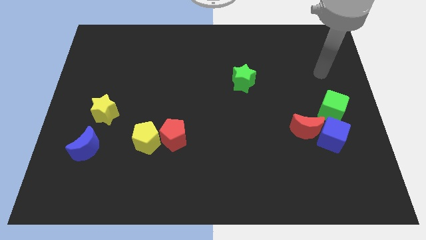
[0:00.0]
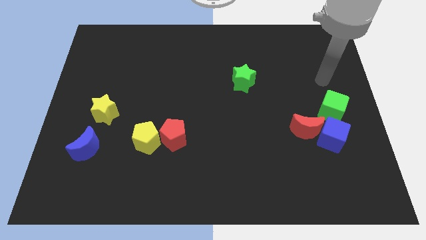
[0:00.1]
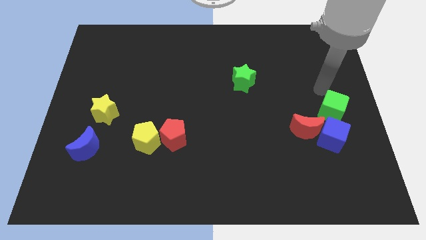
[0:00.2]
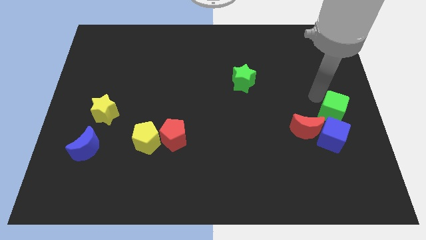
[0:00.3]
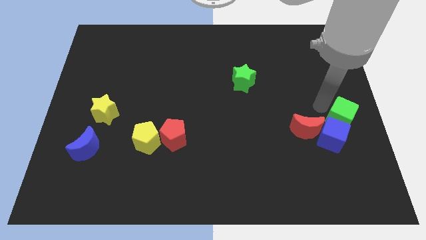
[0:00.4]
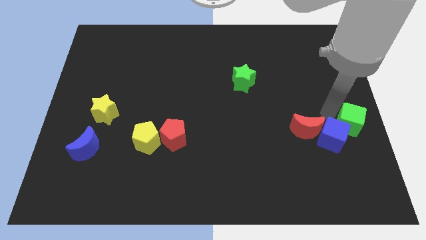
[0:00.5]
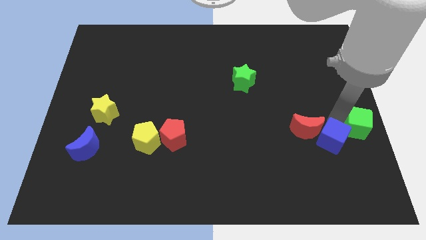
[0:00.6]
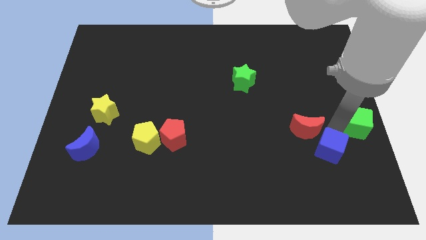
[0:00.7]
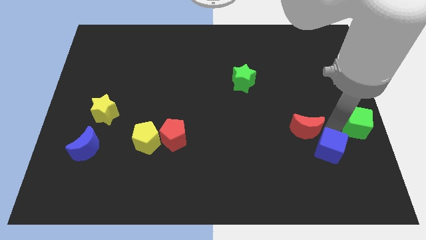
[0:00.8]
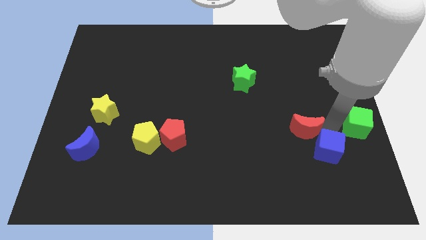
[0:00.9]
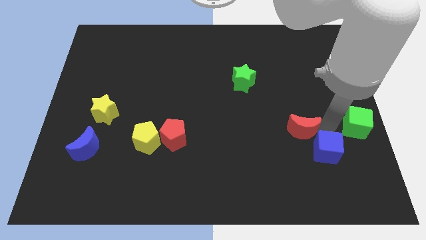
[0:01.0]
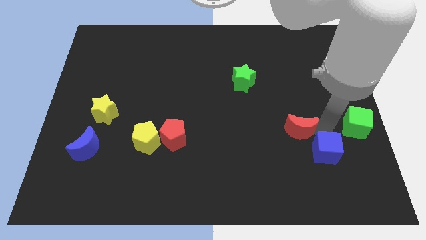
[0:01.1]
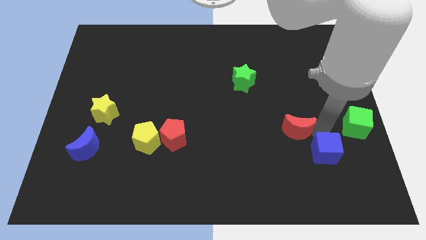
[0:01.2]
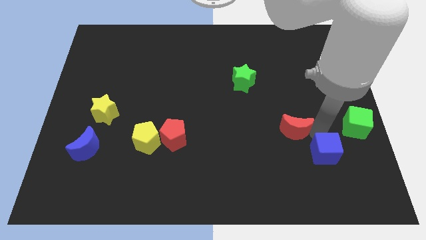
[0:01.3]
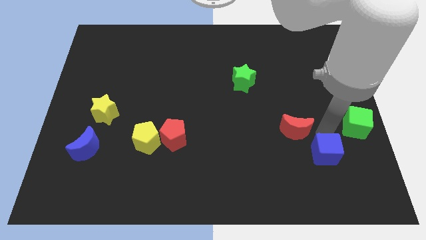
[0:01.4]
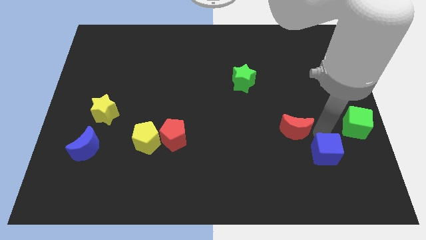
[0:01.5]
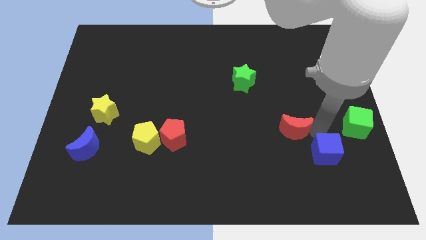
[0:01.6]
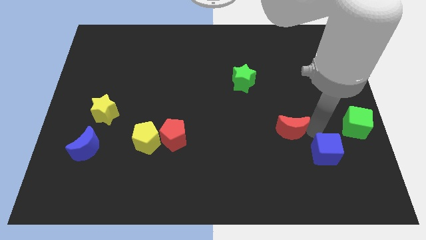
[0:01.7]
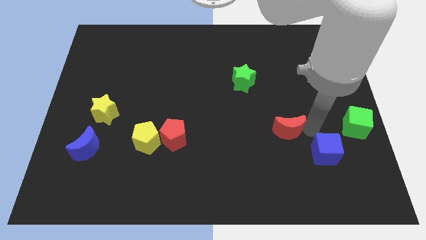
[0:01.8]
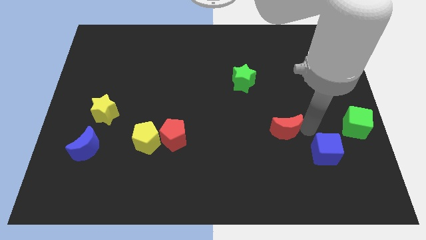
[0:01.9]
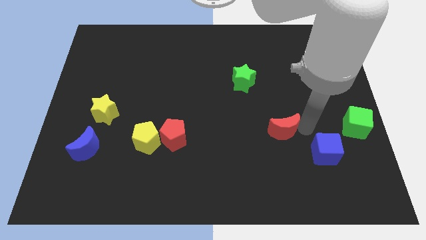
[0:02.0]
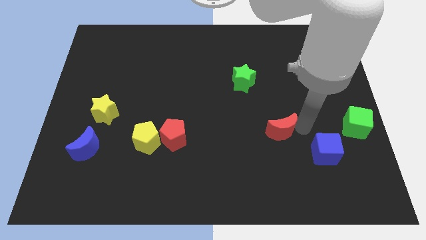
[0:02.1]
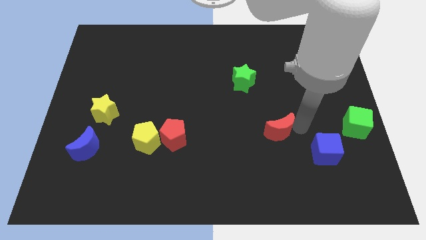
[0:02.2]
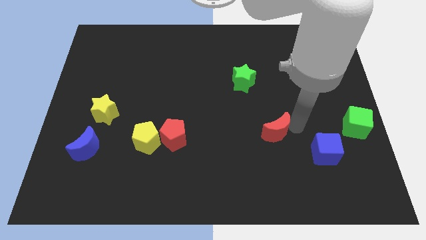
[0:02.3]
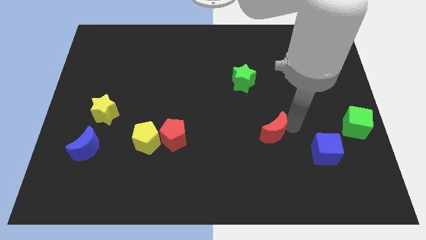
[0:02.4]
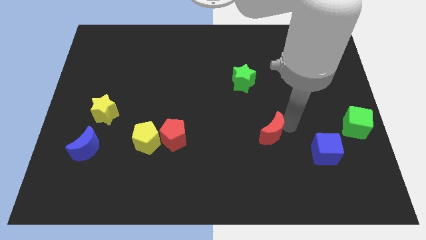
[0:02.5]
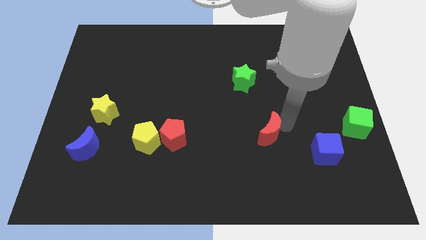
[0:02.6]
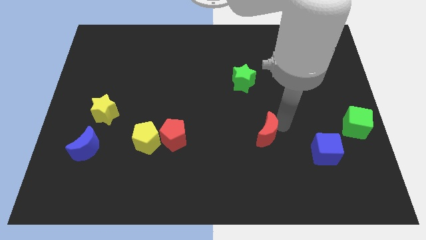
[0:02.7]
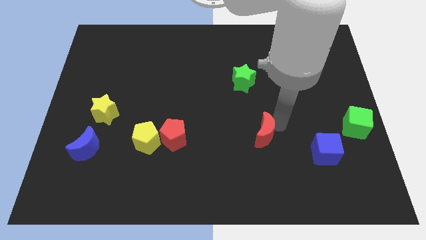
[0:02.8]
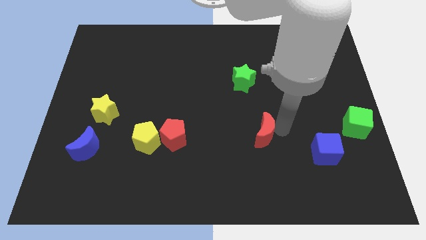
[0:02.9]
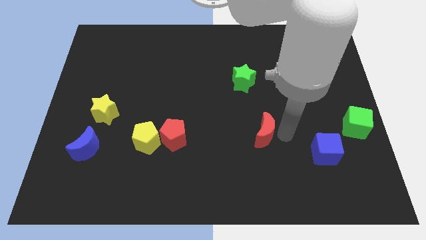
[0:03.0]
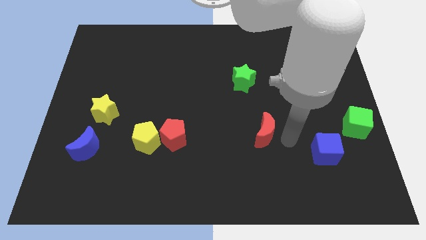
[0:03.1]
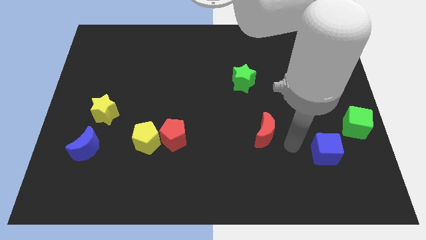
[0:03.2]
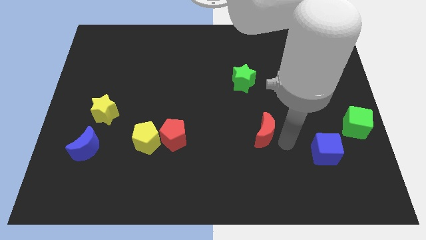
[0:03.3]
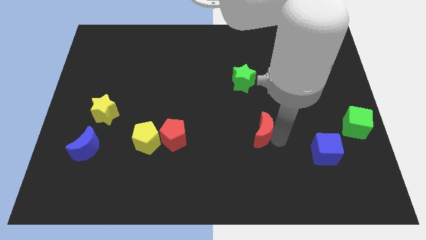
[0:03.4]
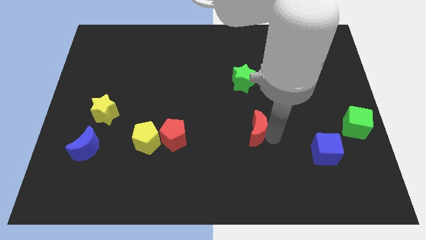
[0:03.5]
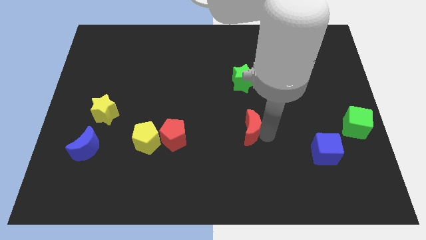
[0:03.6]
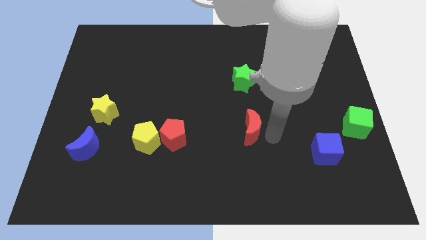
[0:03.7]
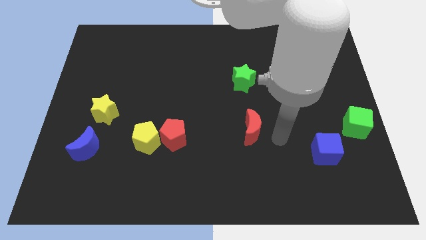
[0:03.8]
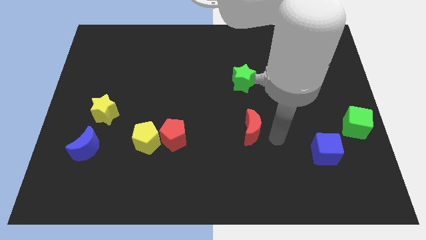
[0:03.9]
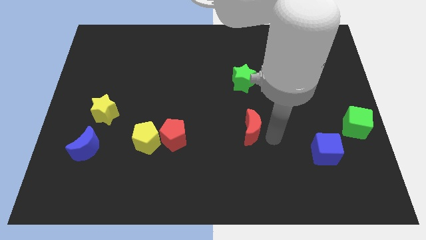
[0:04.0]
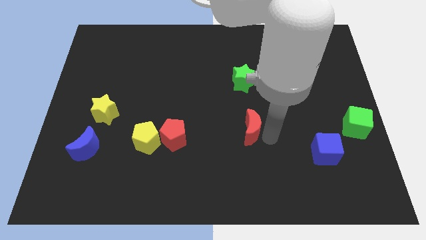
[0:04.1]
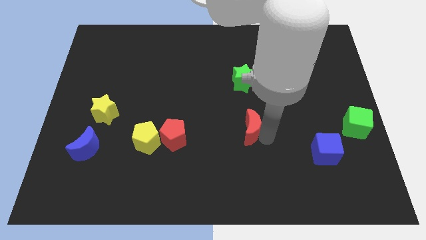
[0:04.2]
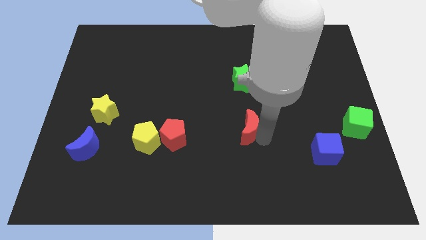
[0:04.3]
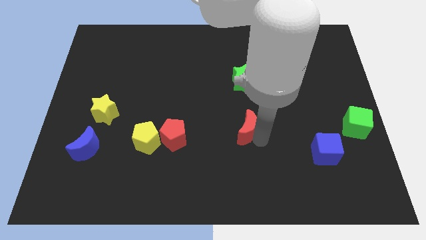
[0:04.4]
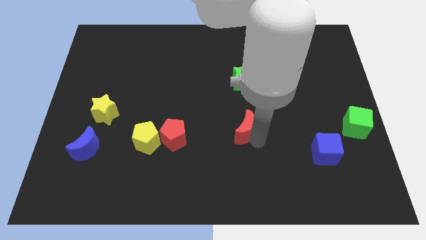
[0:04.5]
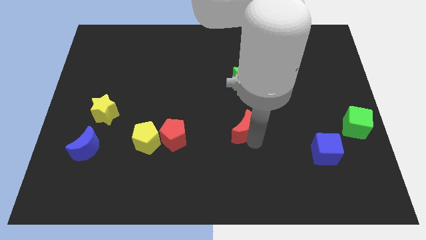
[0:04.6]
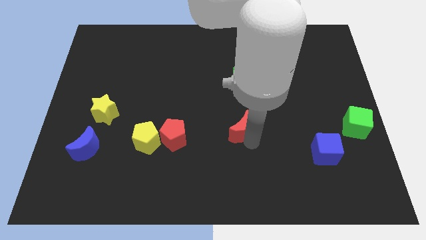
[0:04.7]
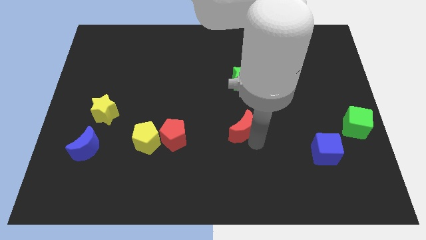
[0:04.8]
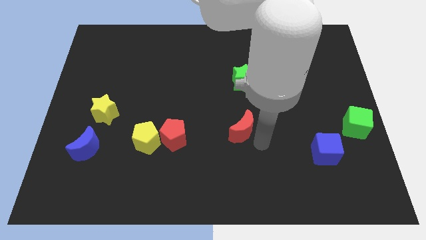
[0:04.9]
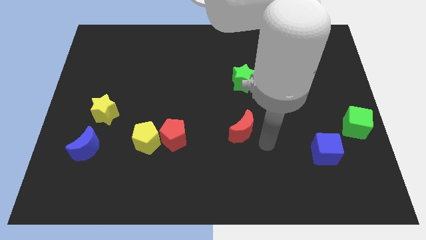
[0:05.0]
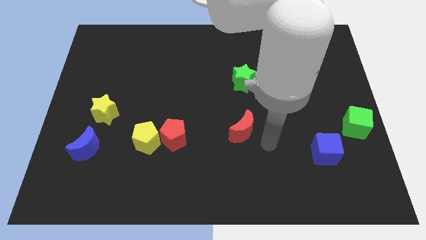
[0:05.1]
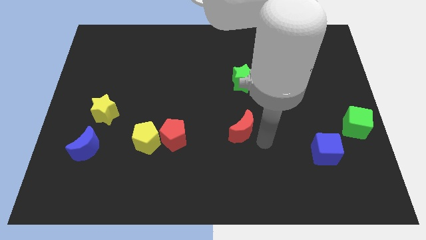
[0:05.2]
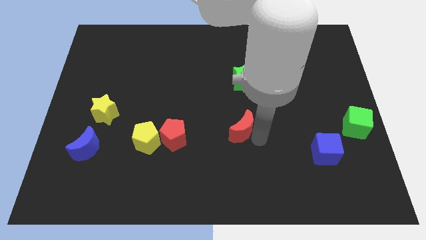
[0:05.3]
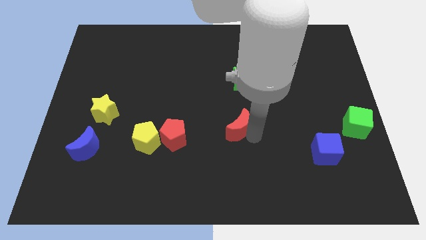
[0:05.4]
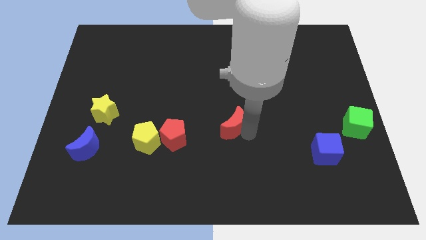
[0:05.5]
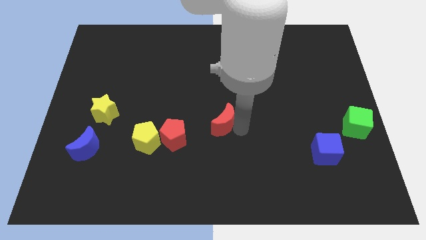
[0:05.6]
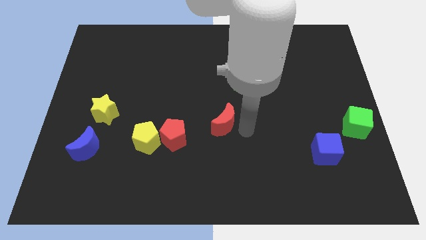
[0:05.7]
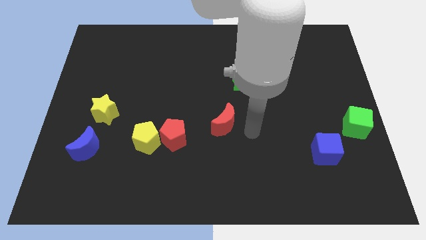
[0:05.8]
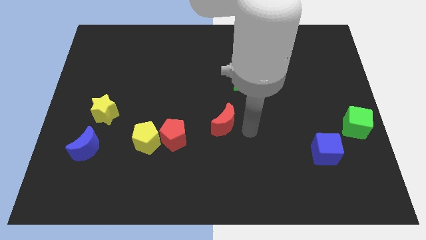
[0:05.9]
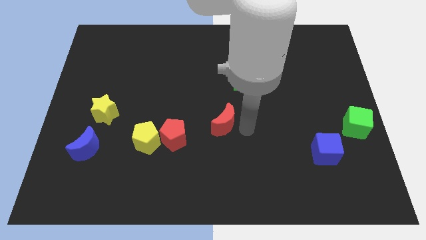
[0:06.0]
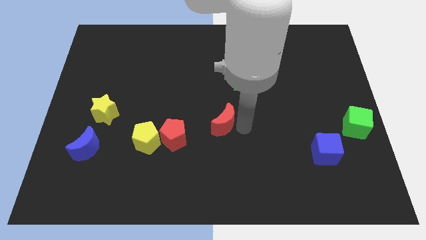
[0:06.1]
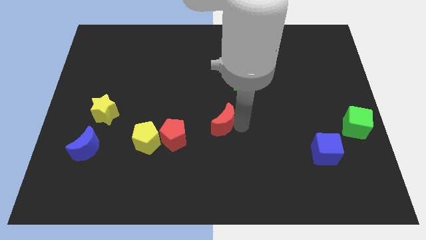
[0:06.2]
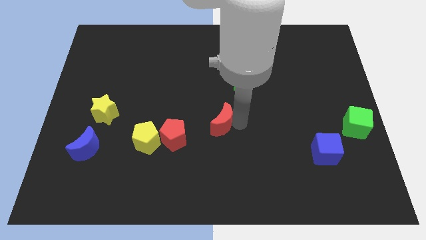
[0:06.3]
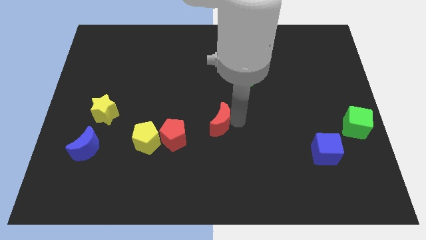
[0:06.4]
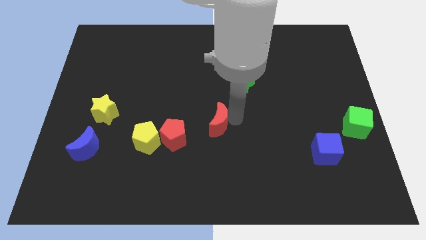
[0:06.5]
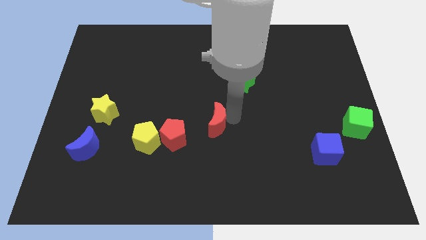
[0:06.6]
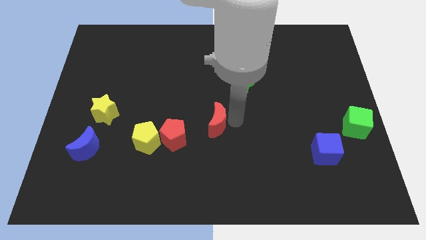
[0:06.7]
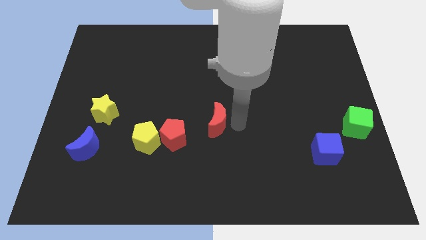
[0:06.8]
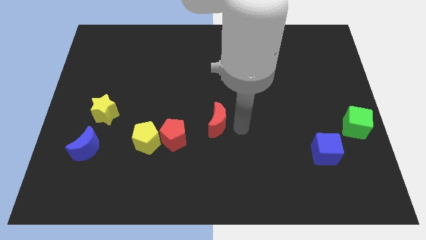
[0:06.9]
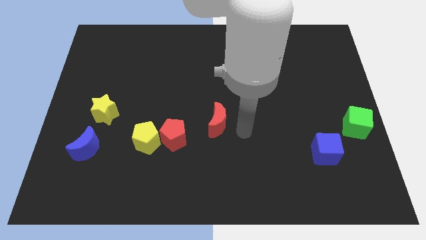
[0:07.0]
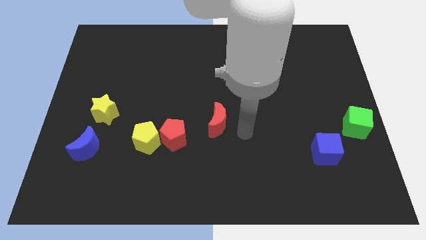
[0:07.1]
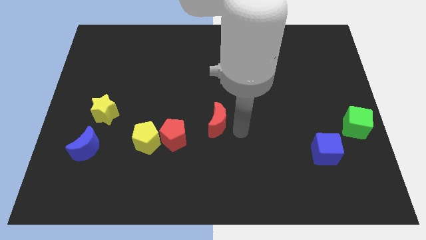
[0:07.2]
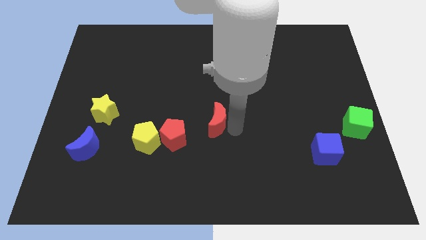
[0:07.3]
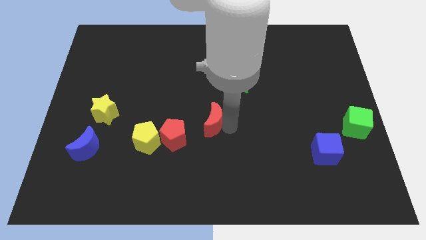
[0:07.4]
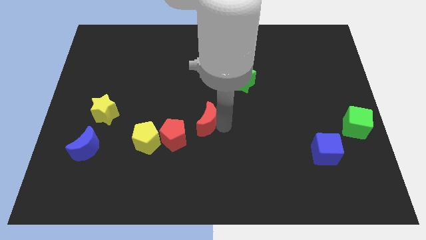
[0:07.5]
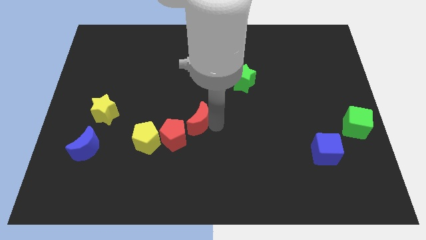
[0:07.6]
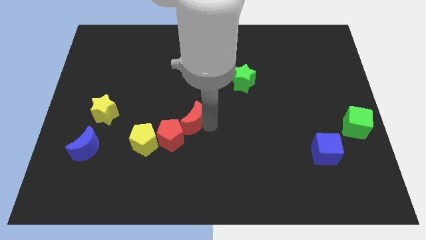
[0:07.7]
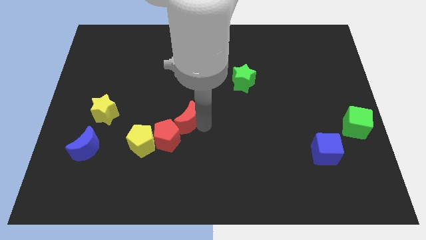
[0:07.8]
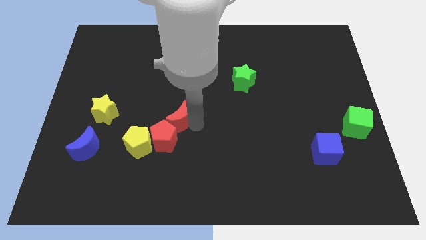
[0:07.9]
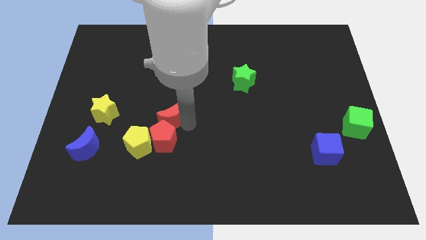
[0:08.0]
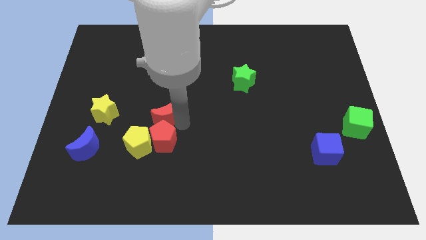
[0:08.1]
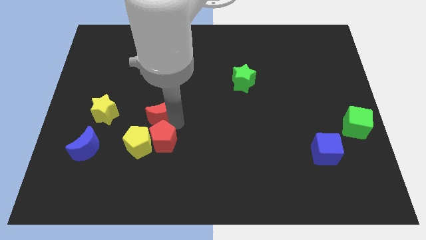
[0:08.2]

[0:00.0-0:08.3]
slide the red moon to the top side of the yellow pentagon
